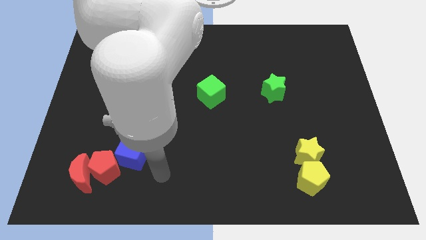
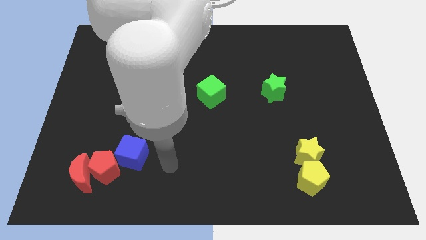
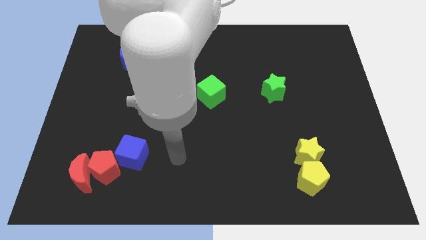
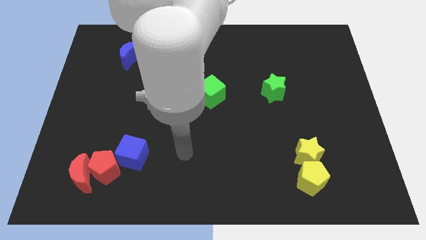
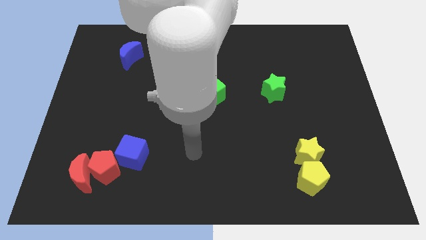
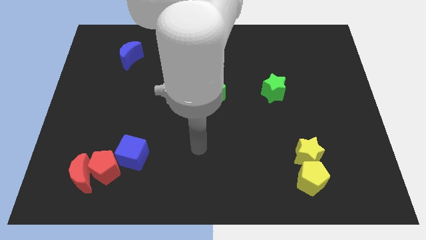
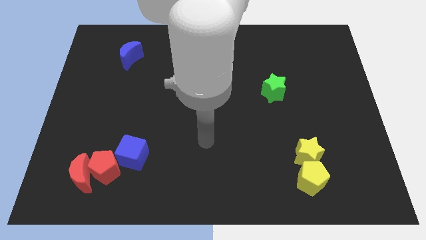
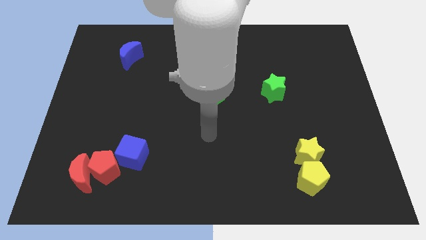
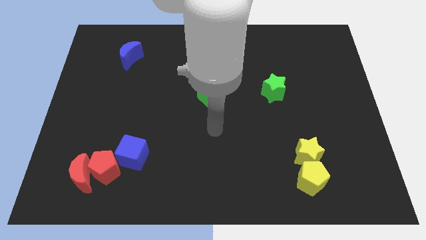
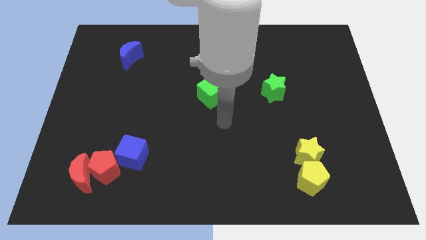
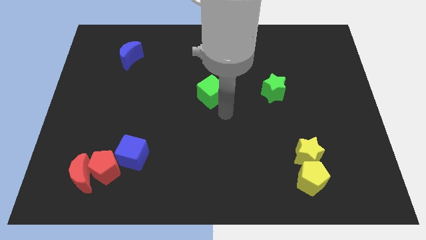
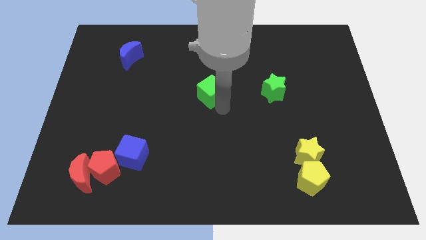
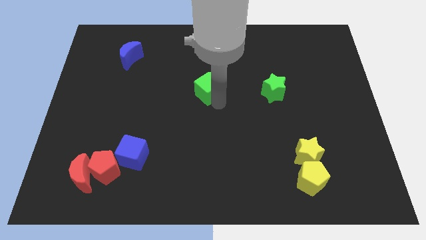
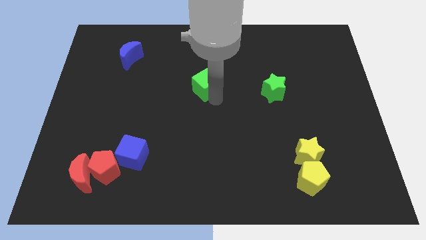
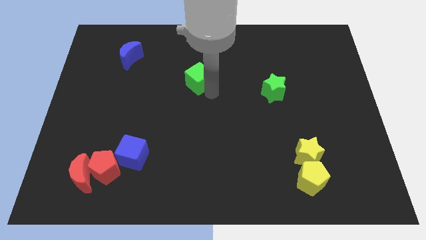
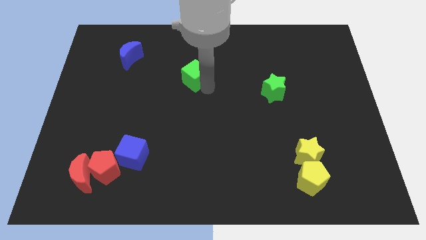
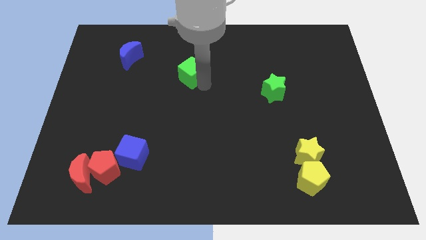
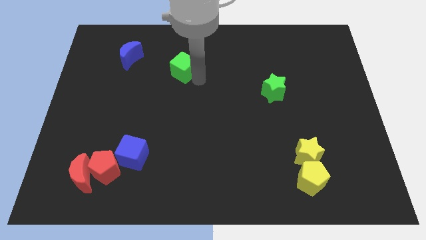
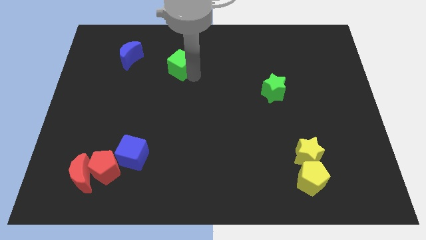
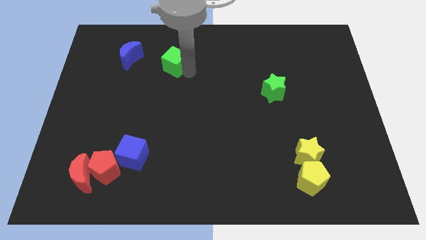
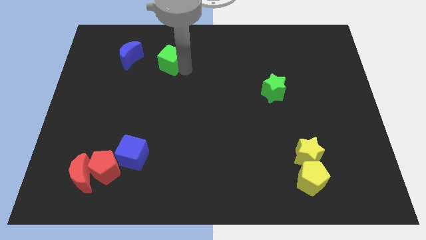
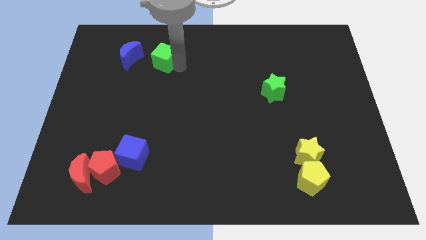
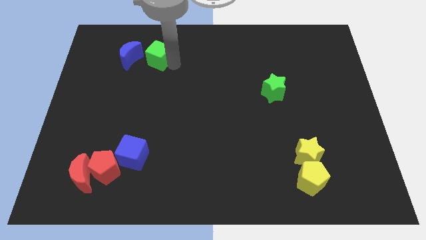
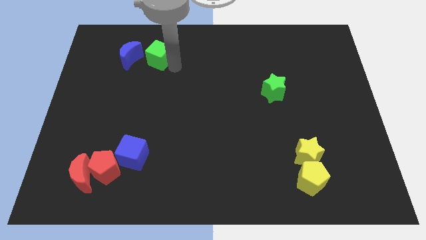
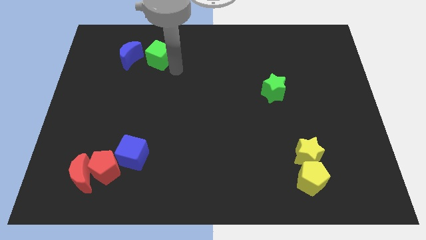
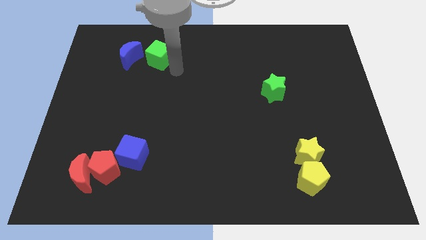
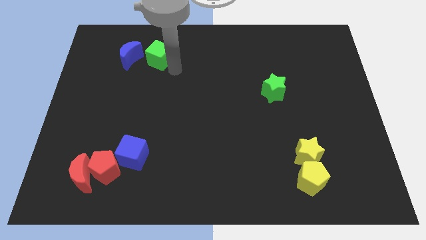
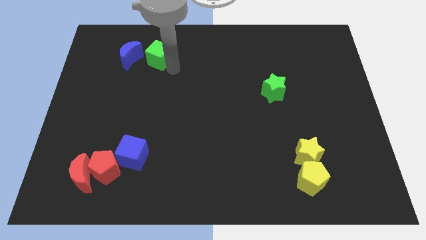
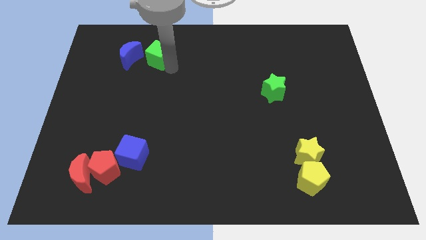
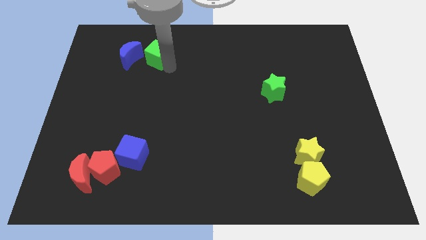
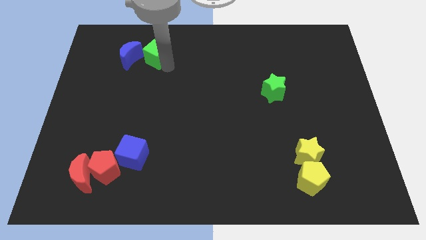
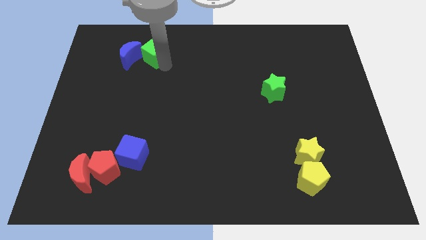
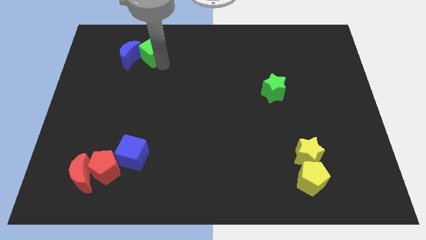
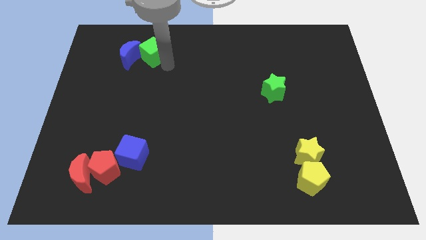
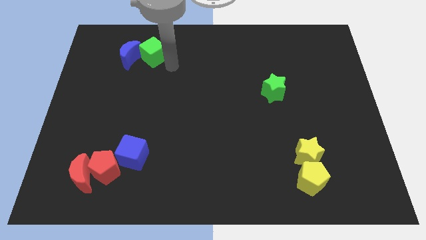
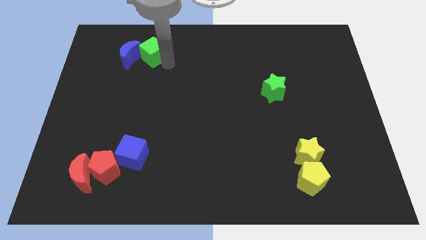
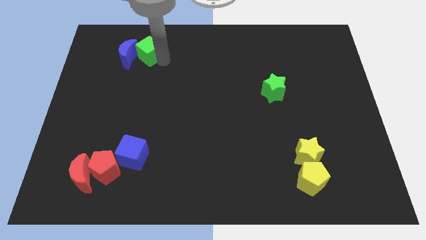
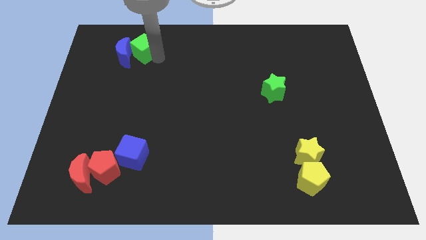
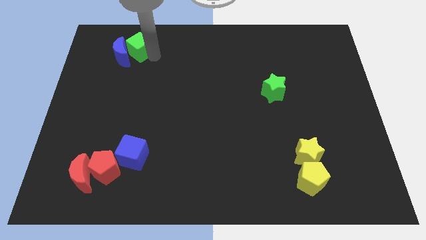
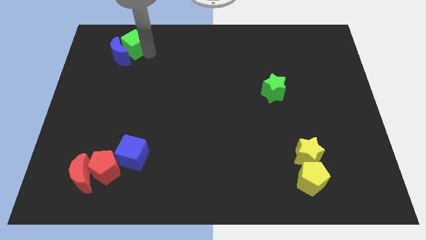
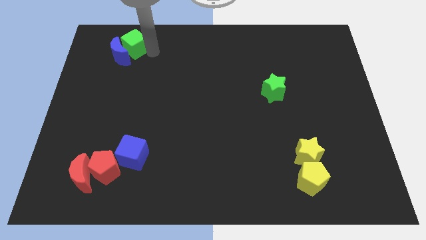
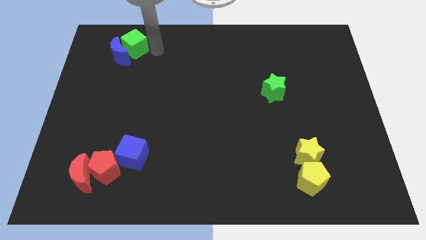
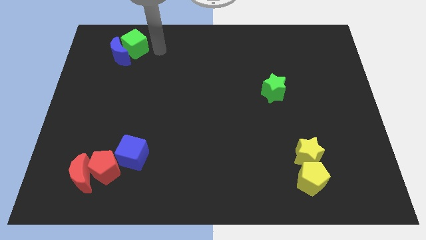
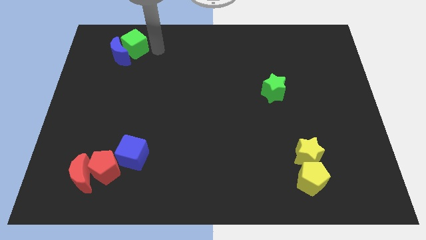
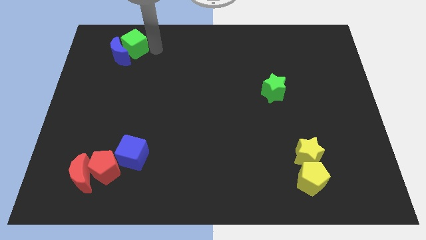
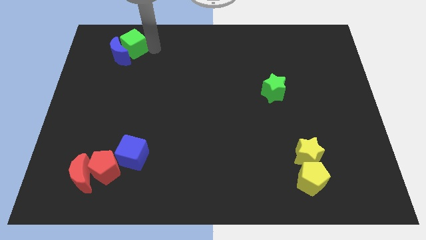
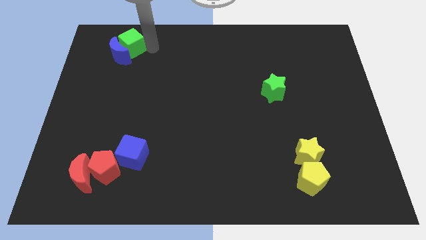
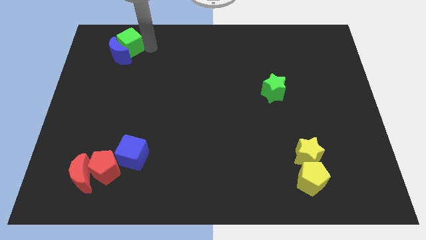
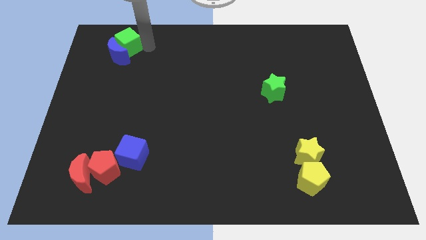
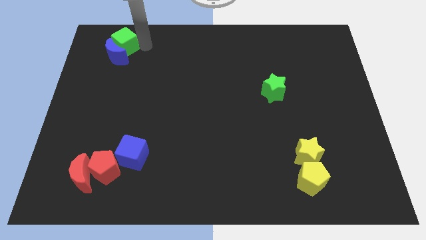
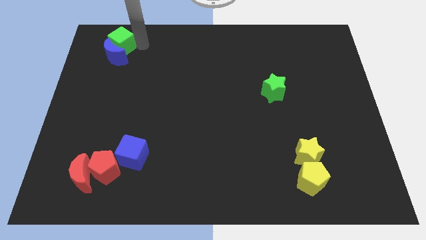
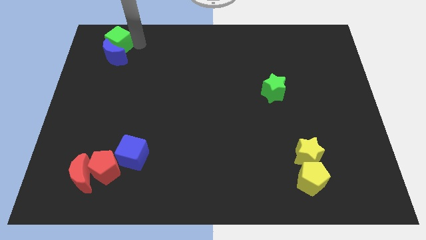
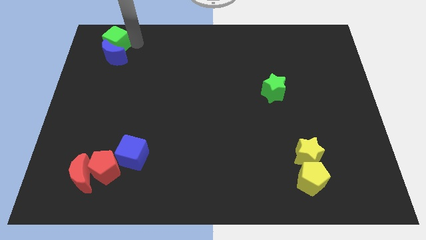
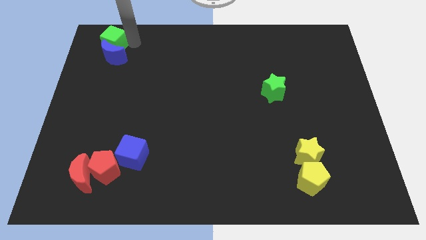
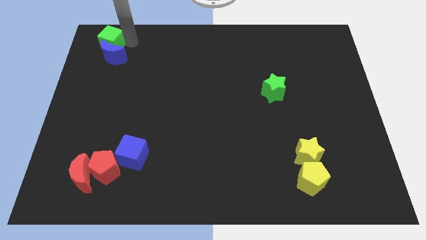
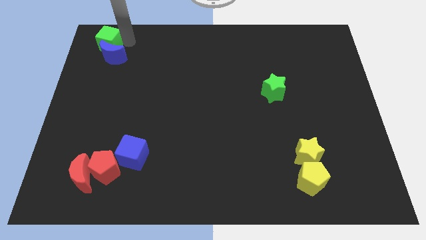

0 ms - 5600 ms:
push the green cube to the top left corner

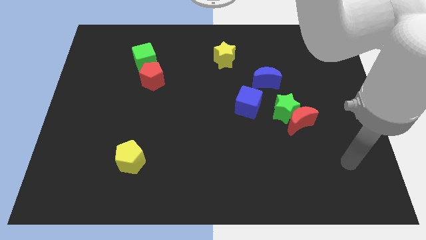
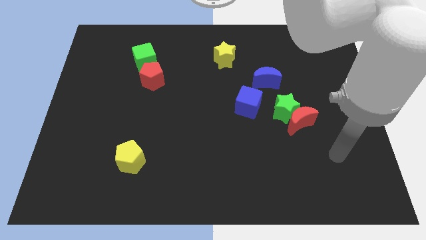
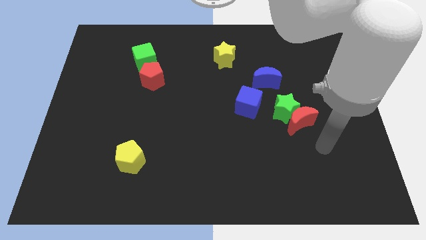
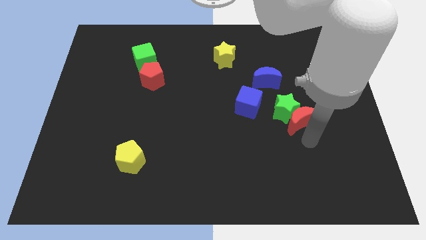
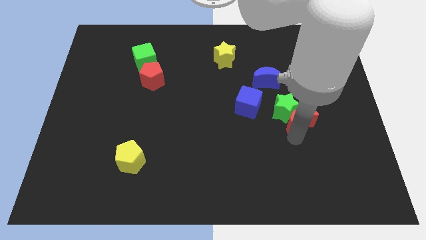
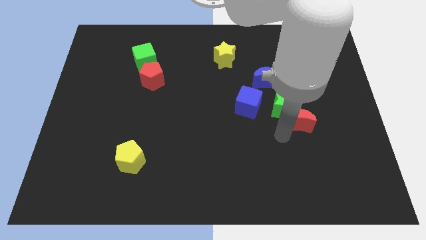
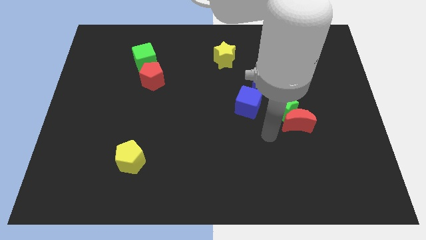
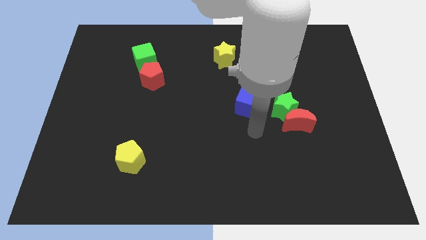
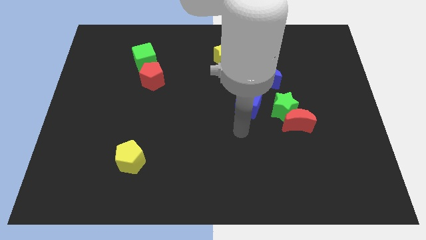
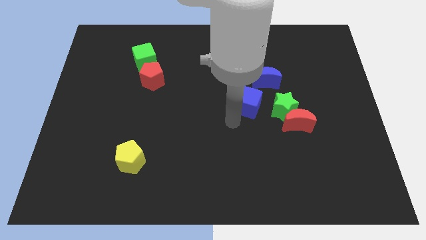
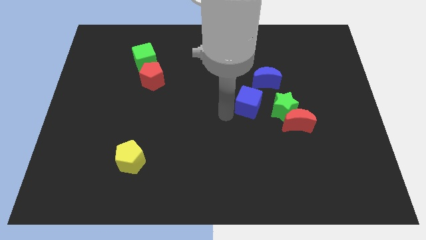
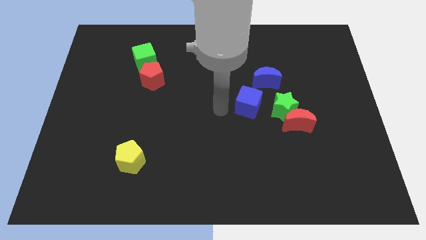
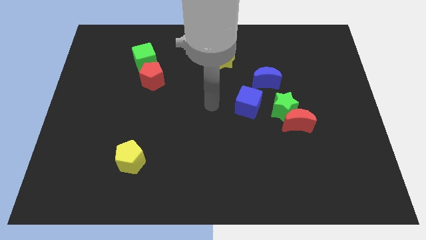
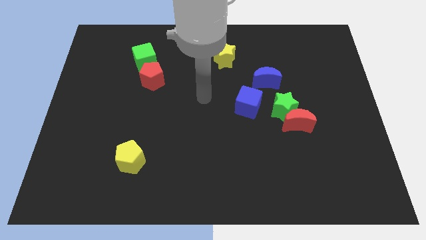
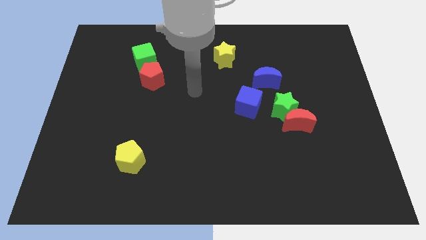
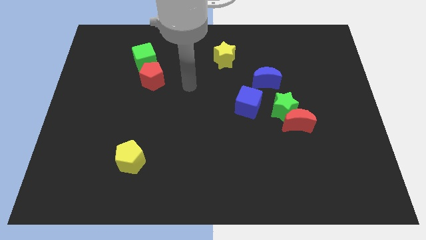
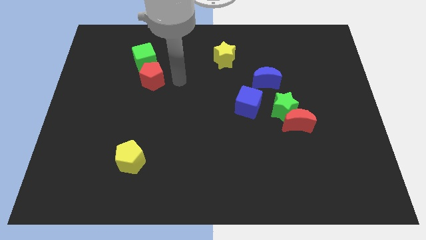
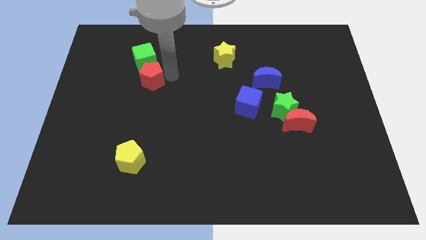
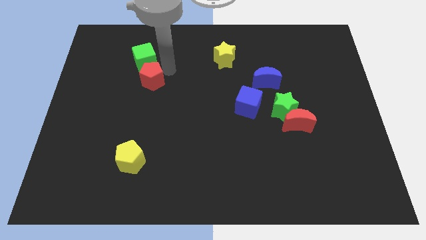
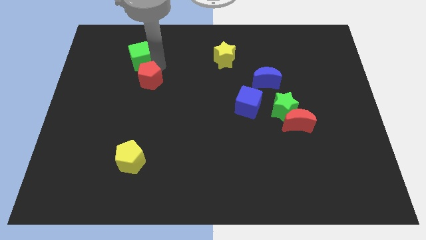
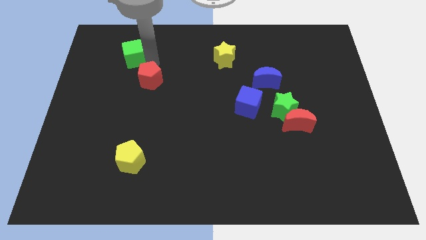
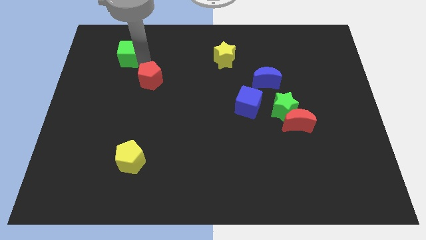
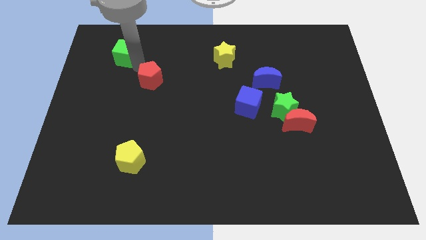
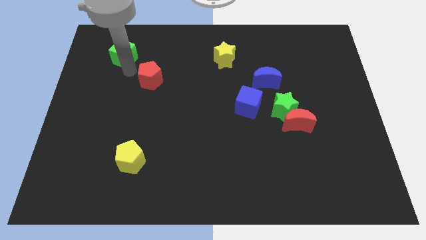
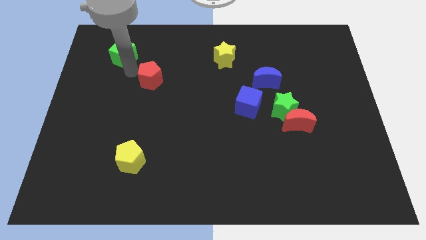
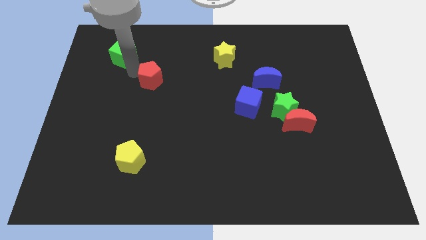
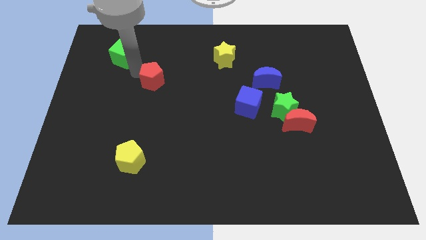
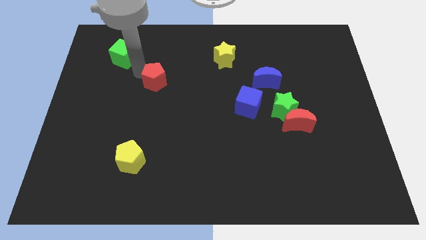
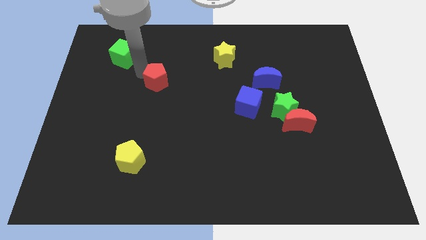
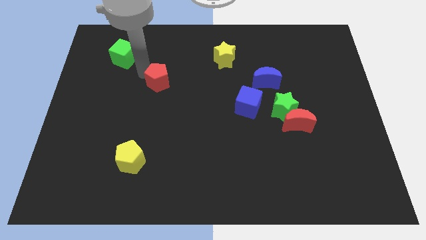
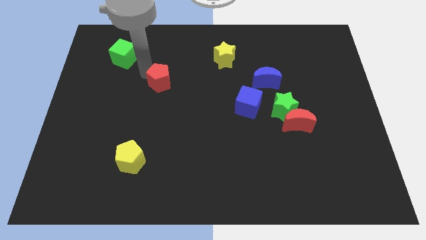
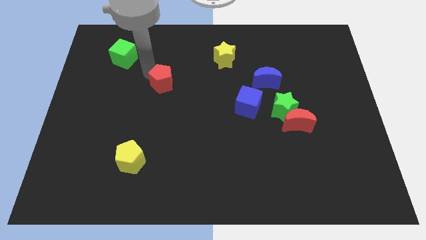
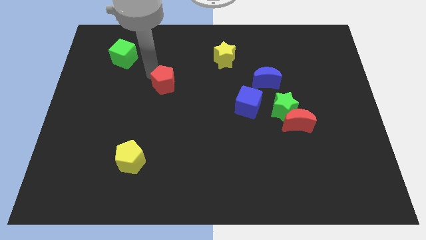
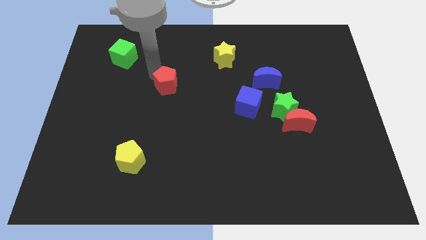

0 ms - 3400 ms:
put the red pentagon to the center
